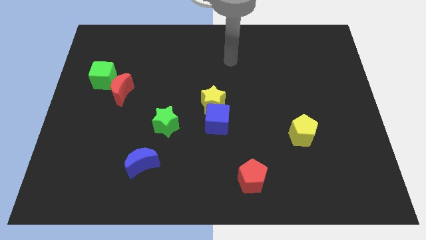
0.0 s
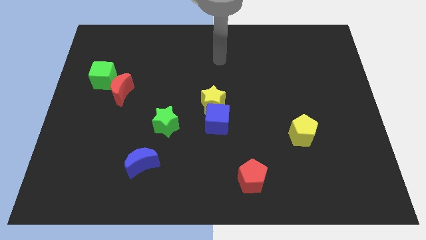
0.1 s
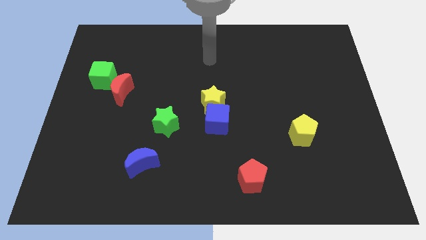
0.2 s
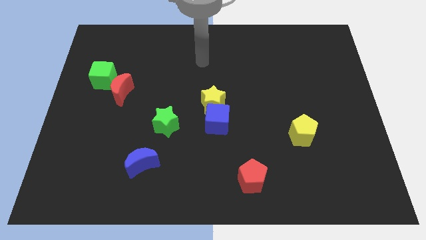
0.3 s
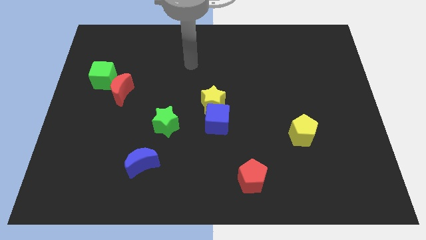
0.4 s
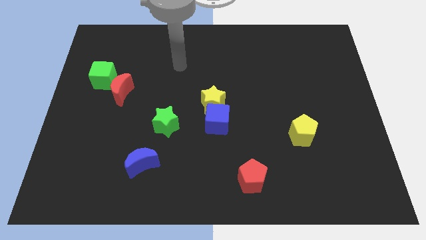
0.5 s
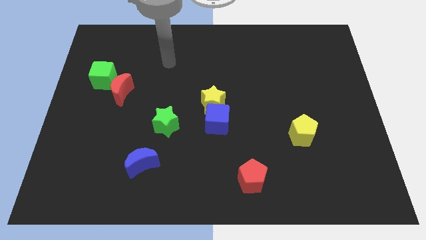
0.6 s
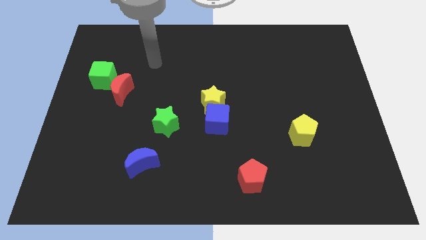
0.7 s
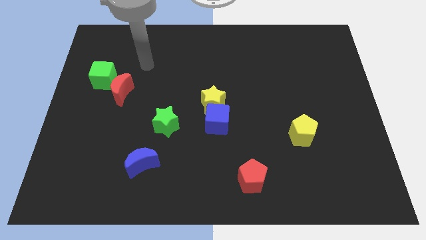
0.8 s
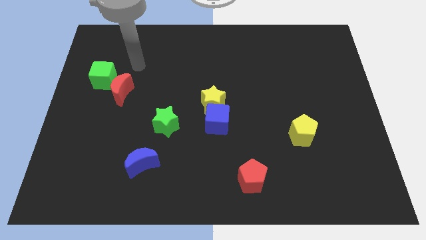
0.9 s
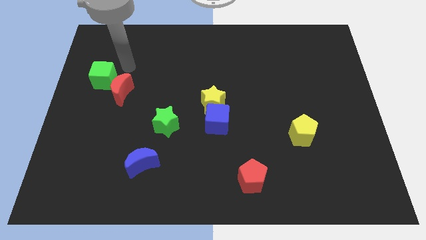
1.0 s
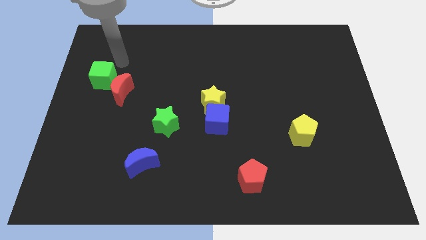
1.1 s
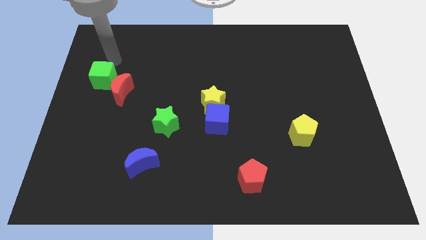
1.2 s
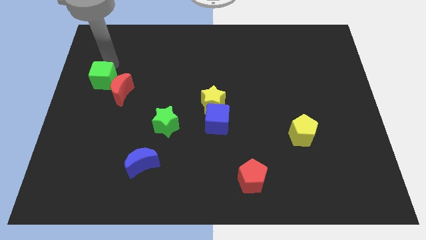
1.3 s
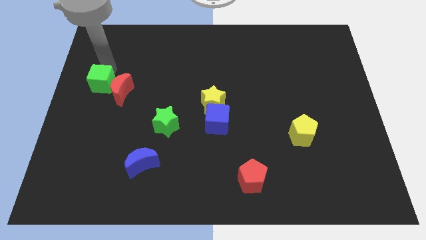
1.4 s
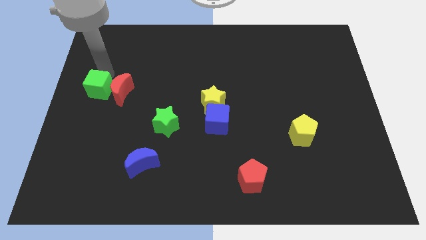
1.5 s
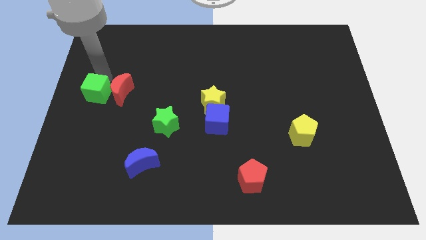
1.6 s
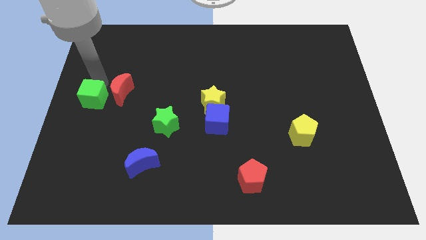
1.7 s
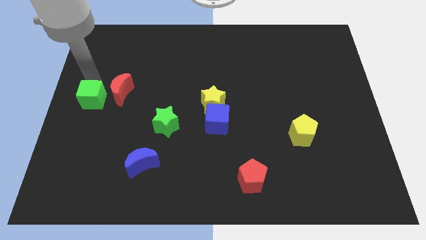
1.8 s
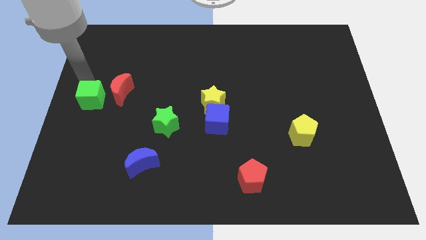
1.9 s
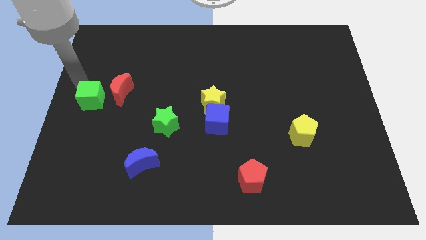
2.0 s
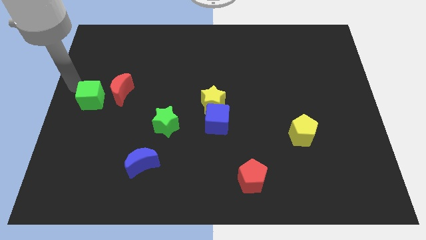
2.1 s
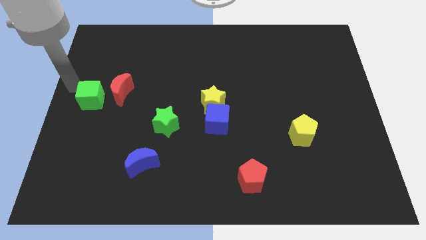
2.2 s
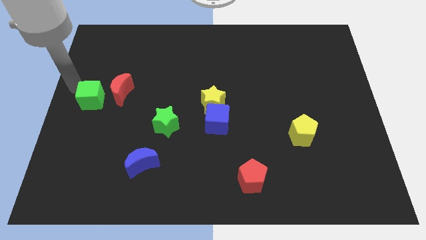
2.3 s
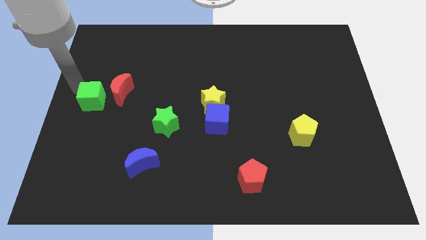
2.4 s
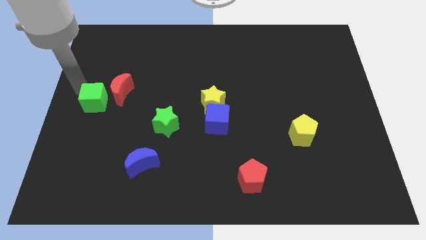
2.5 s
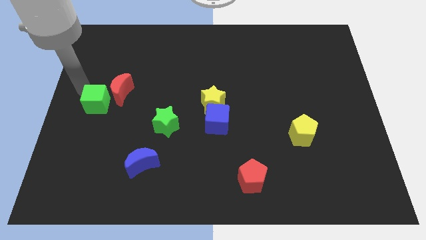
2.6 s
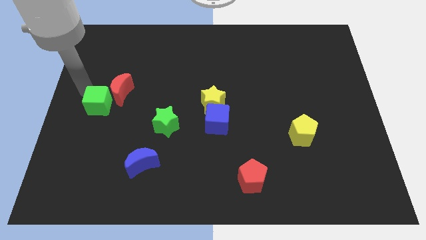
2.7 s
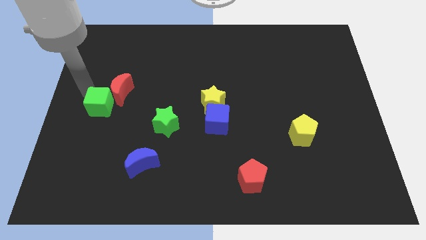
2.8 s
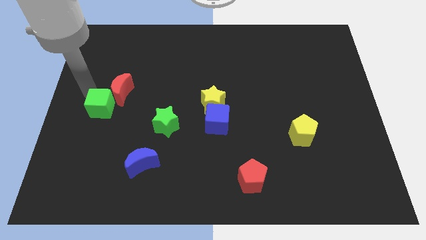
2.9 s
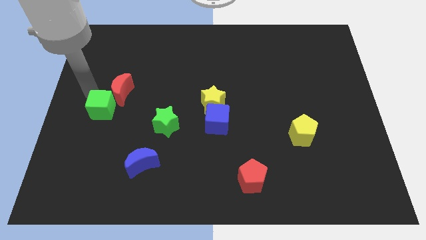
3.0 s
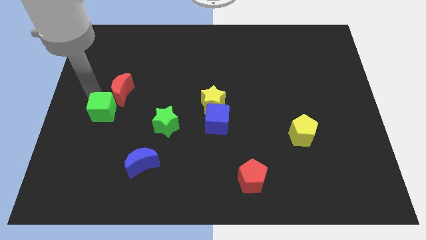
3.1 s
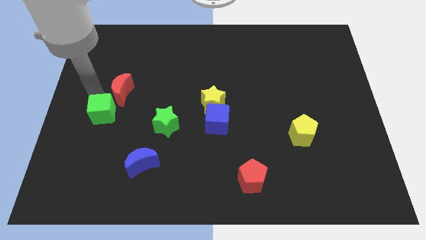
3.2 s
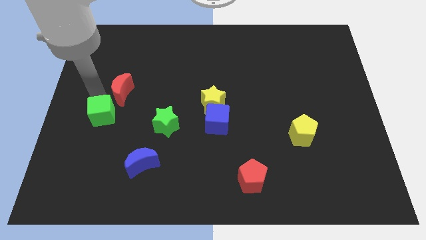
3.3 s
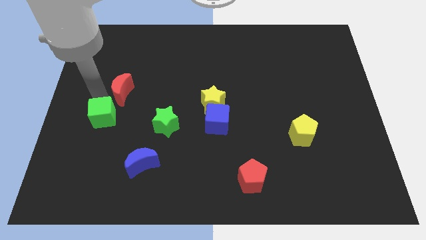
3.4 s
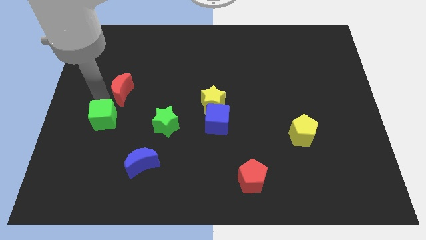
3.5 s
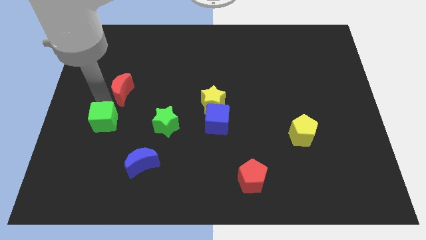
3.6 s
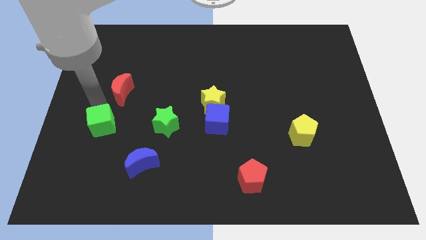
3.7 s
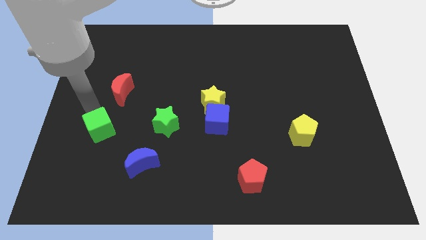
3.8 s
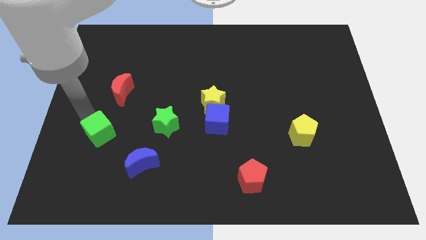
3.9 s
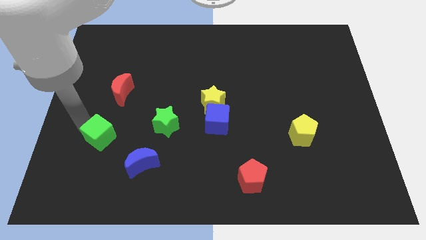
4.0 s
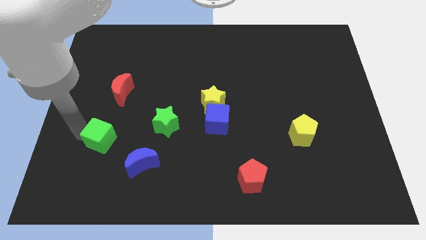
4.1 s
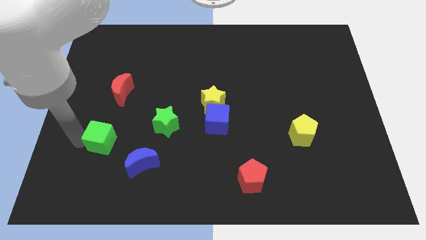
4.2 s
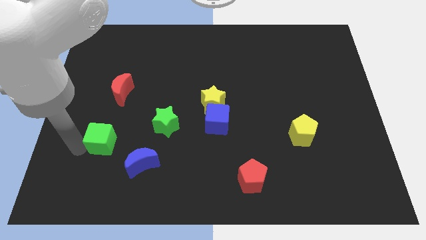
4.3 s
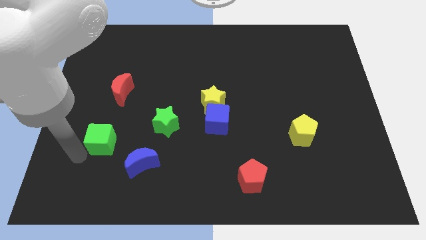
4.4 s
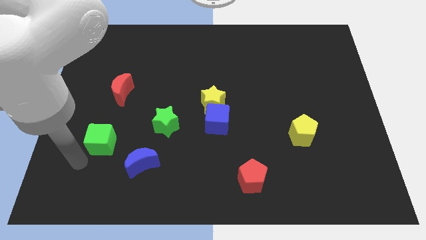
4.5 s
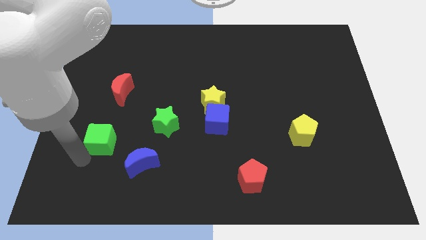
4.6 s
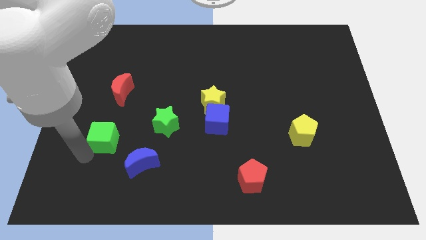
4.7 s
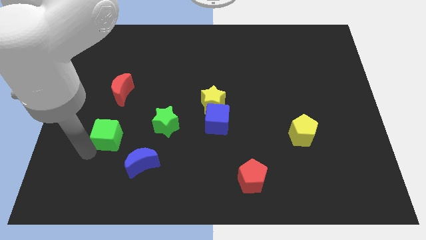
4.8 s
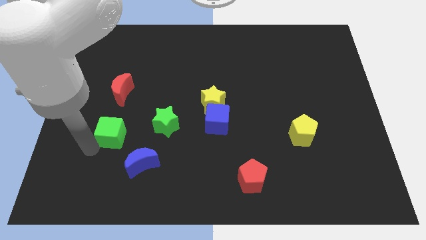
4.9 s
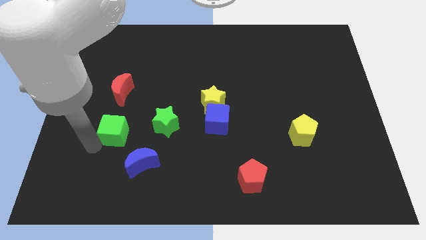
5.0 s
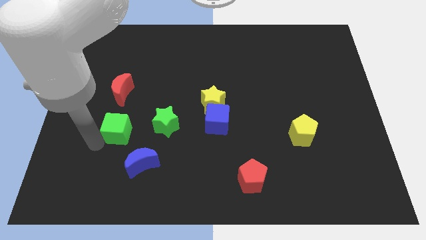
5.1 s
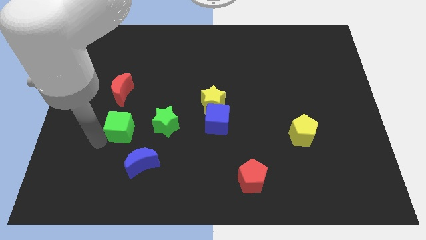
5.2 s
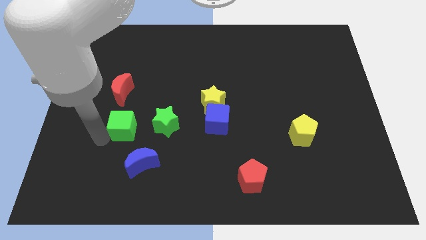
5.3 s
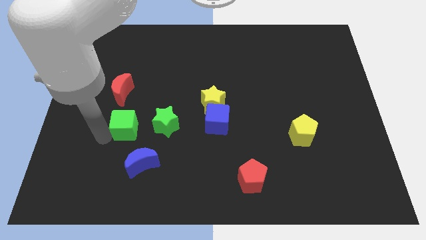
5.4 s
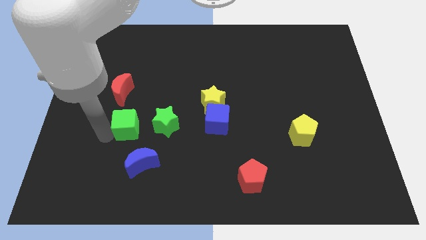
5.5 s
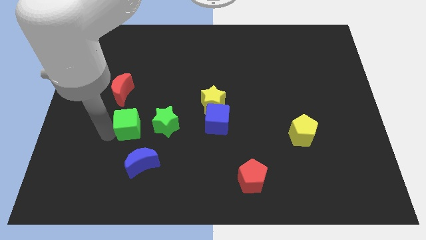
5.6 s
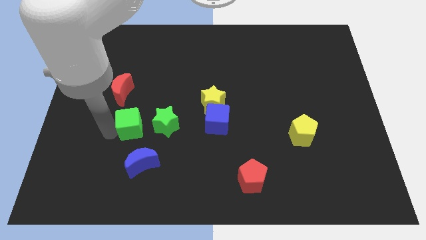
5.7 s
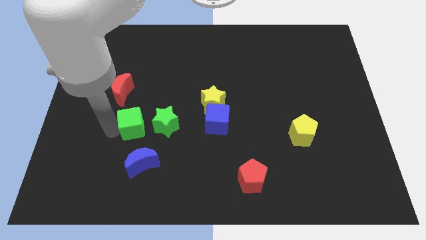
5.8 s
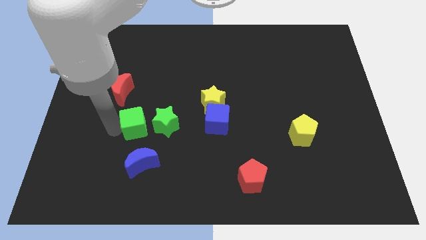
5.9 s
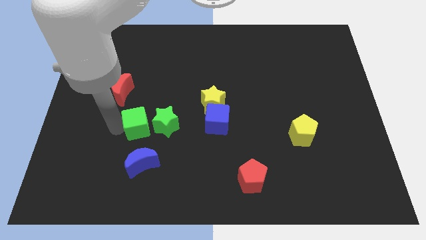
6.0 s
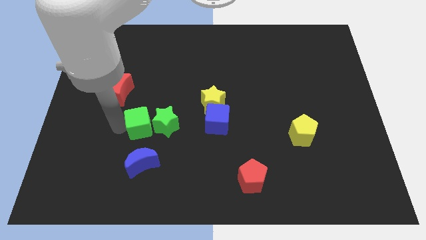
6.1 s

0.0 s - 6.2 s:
move the green cube towards the green star

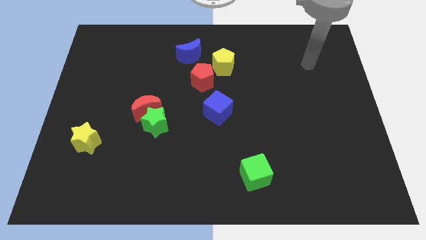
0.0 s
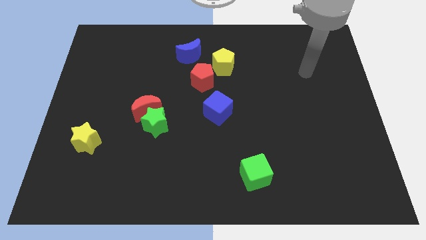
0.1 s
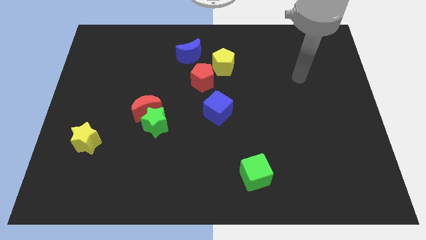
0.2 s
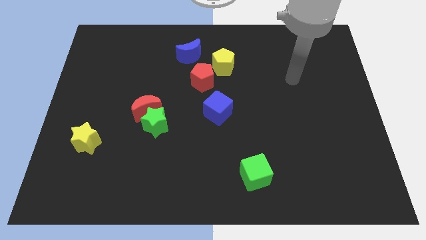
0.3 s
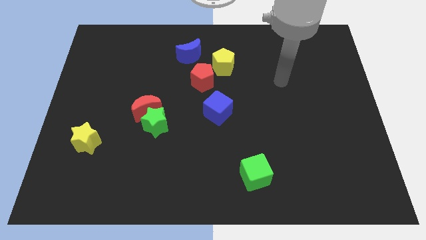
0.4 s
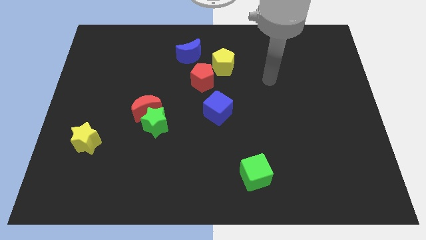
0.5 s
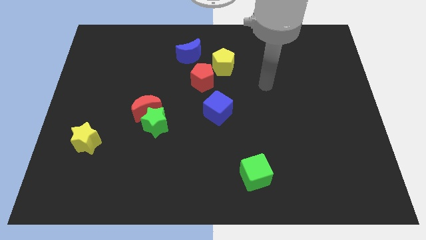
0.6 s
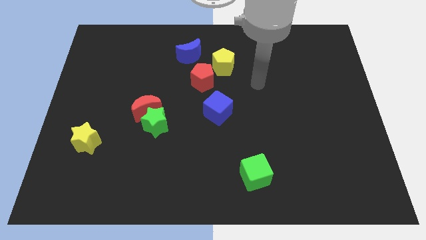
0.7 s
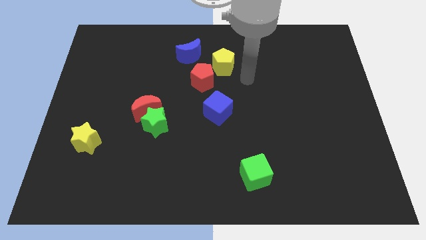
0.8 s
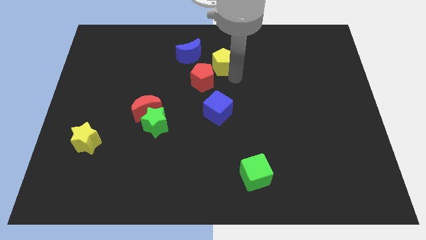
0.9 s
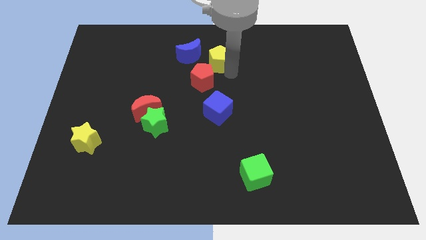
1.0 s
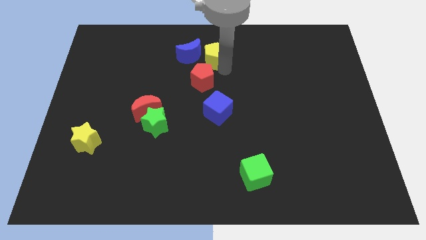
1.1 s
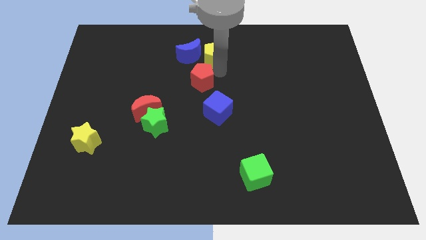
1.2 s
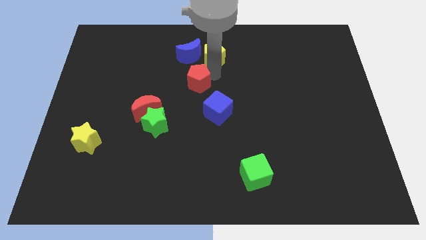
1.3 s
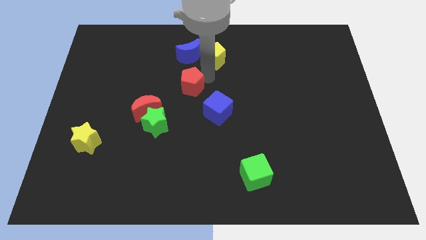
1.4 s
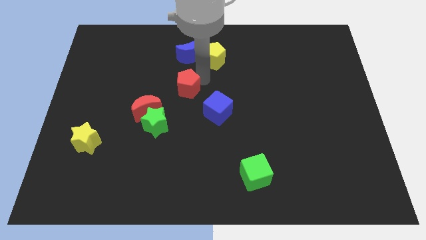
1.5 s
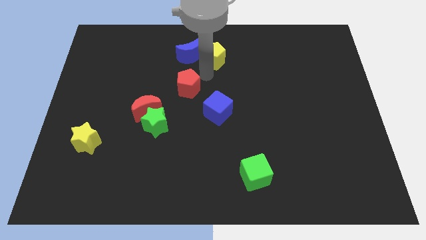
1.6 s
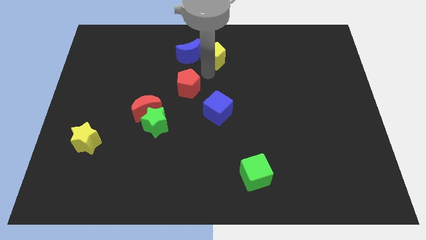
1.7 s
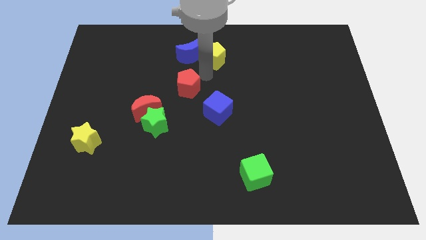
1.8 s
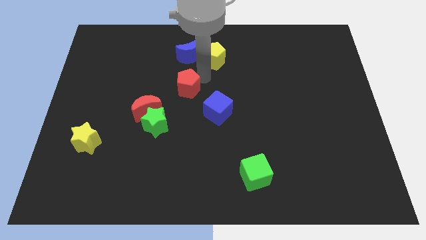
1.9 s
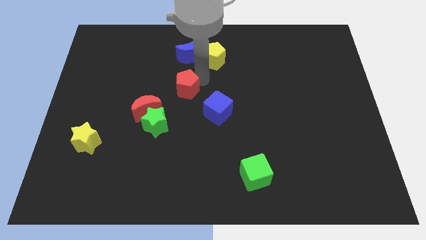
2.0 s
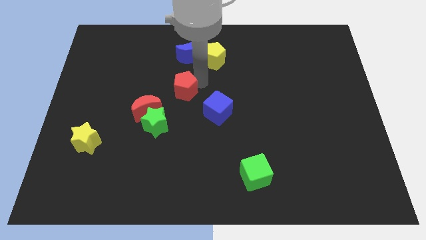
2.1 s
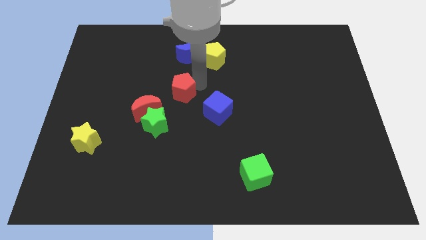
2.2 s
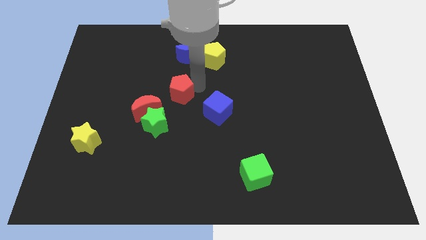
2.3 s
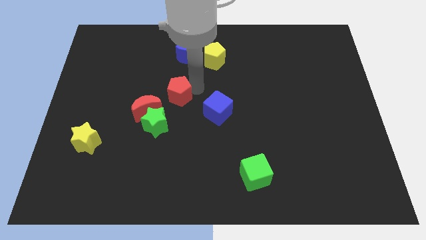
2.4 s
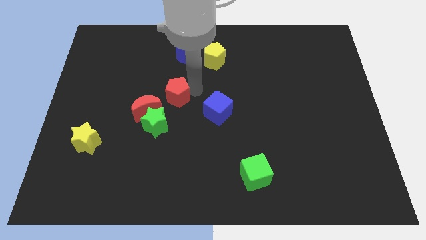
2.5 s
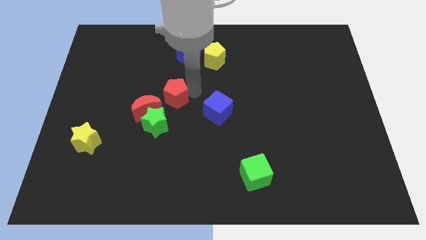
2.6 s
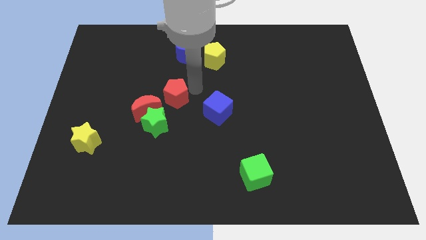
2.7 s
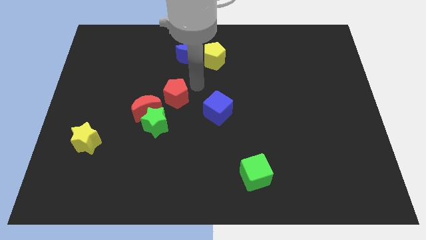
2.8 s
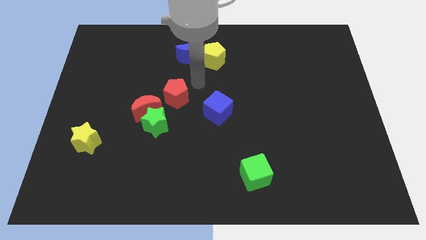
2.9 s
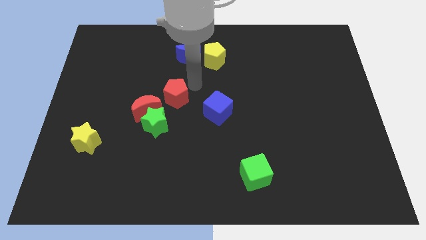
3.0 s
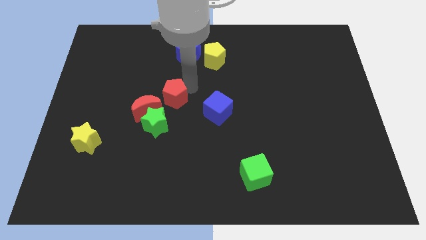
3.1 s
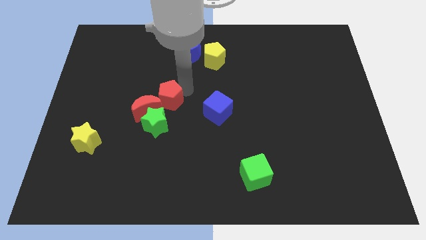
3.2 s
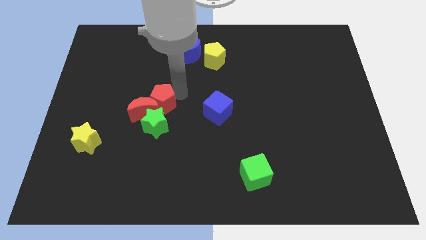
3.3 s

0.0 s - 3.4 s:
slide the red pentagon close to the red moon
